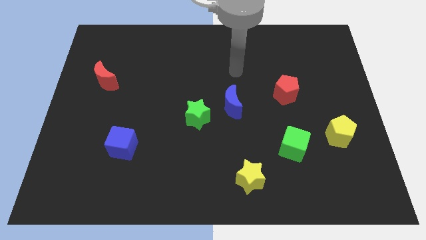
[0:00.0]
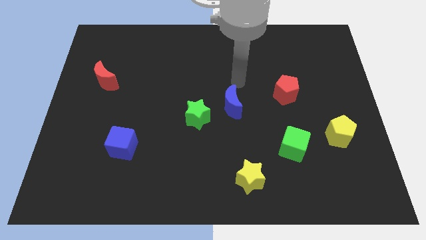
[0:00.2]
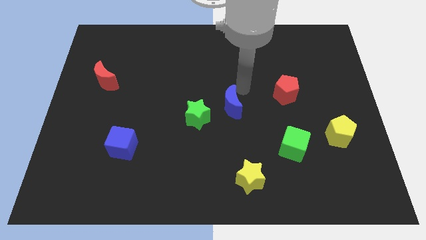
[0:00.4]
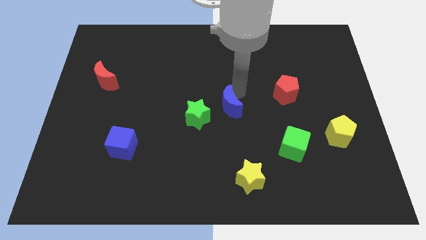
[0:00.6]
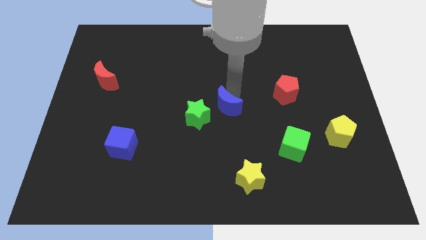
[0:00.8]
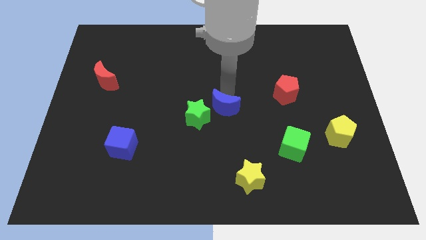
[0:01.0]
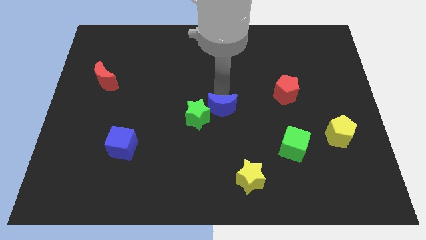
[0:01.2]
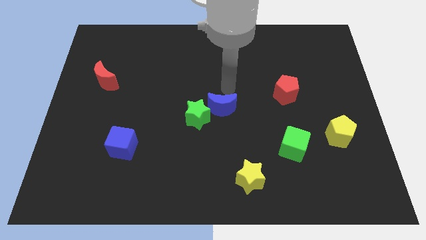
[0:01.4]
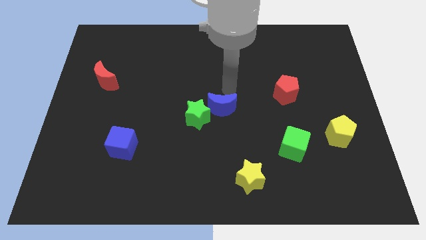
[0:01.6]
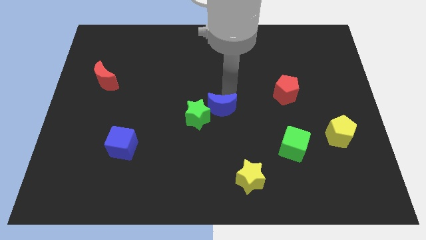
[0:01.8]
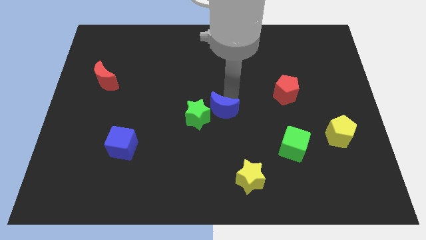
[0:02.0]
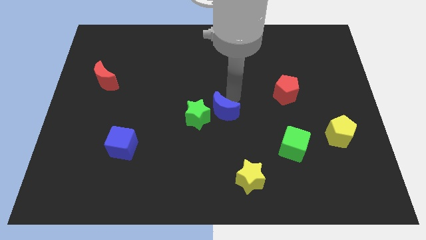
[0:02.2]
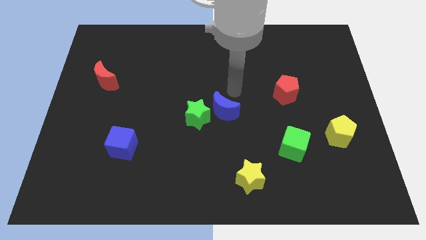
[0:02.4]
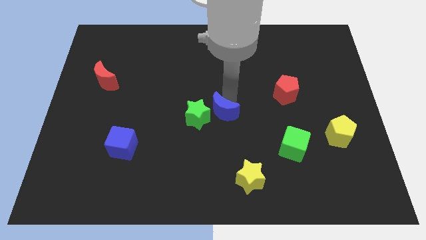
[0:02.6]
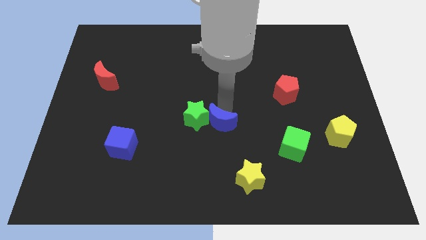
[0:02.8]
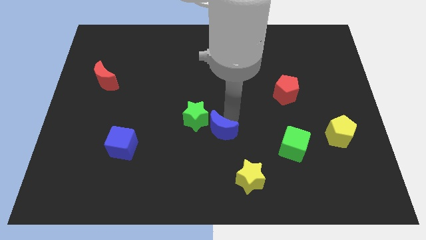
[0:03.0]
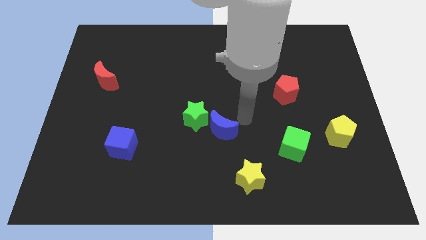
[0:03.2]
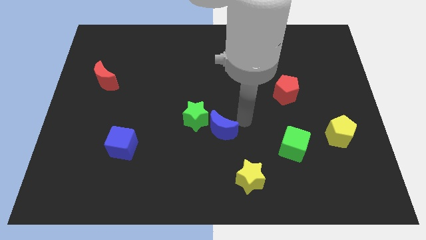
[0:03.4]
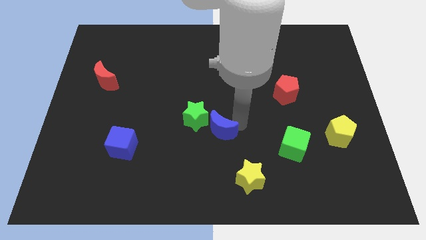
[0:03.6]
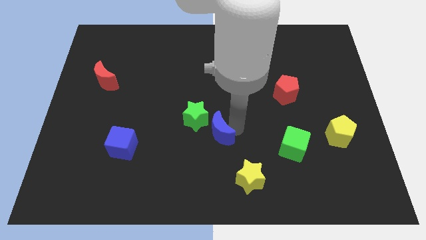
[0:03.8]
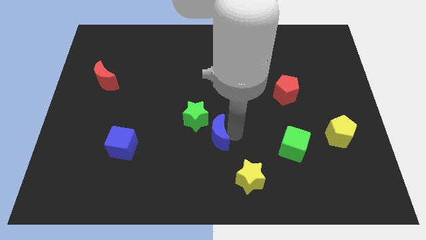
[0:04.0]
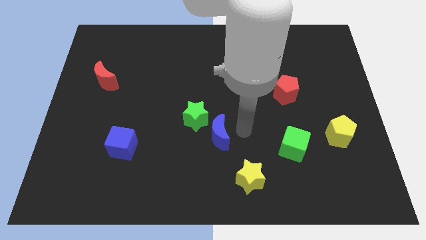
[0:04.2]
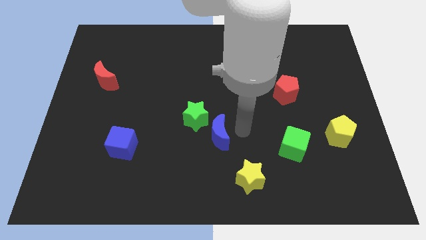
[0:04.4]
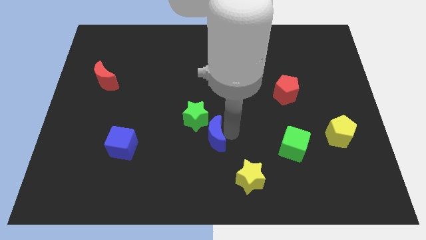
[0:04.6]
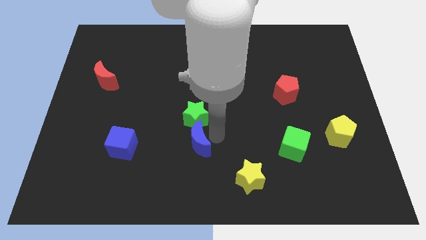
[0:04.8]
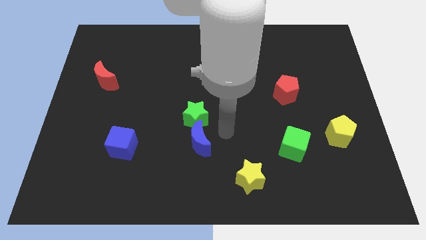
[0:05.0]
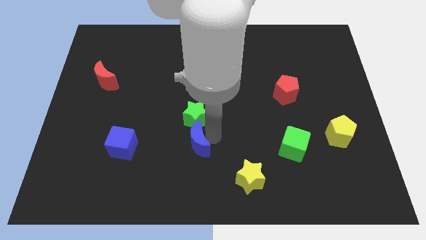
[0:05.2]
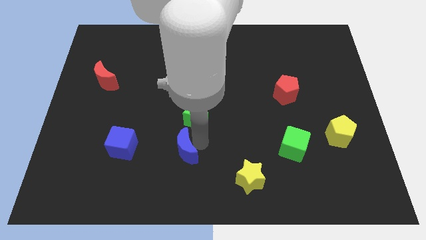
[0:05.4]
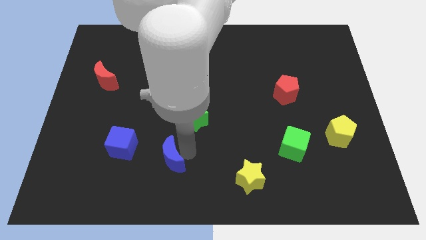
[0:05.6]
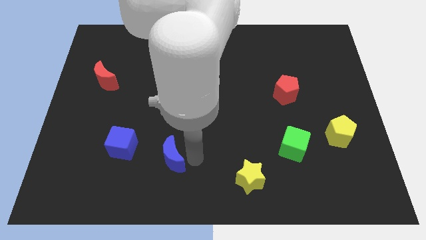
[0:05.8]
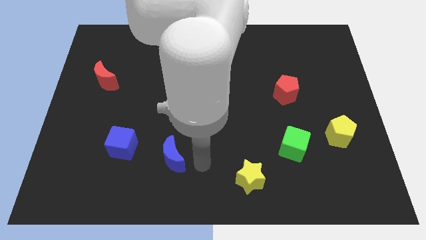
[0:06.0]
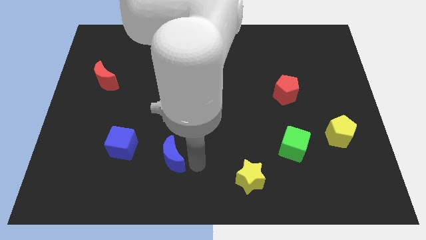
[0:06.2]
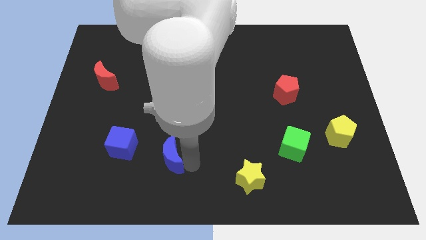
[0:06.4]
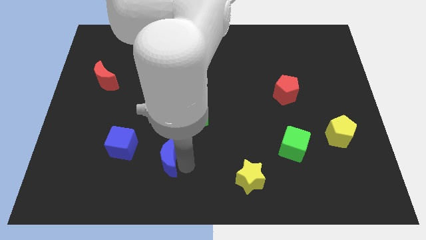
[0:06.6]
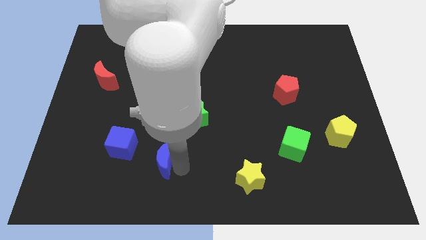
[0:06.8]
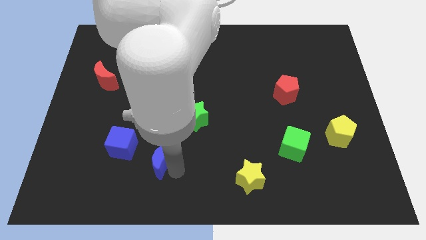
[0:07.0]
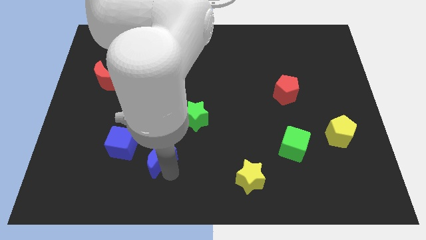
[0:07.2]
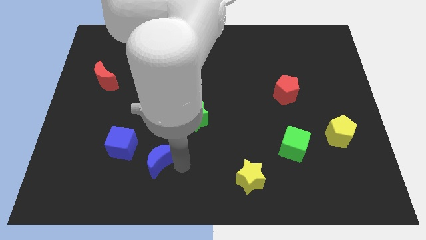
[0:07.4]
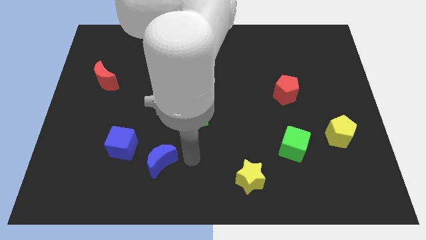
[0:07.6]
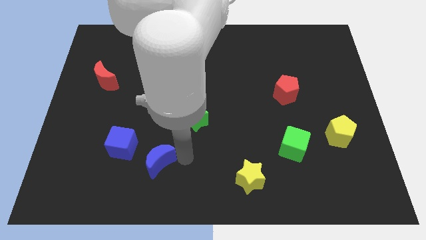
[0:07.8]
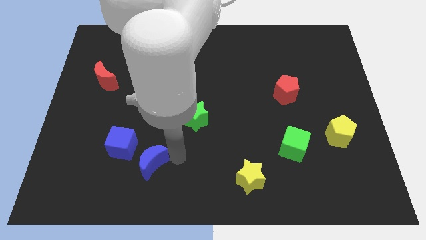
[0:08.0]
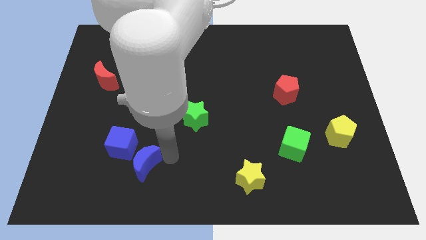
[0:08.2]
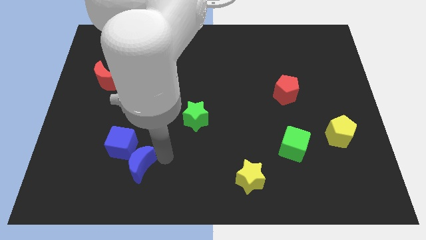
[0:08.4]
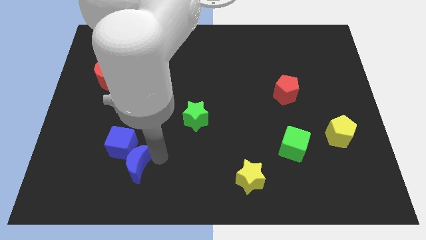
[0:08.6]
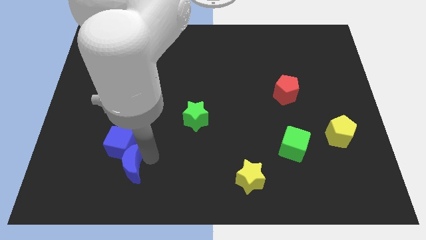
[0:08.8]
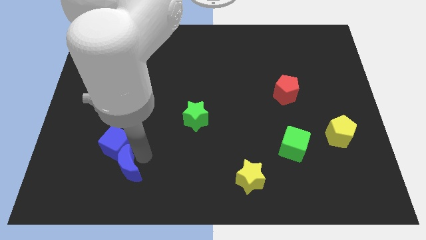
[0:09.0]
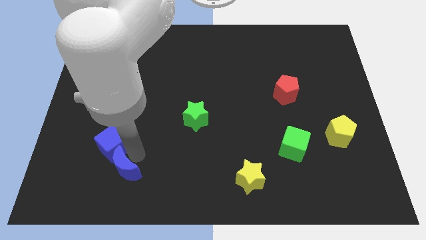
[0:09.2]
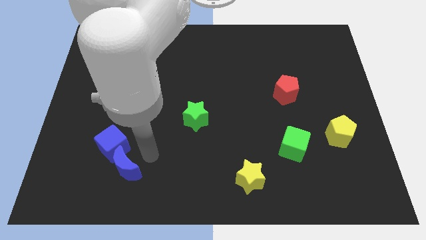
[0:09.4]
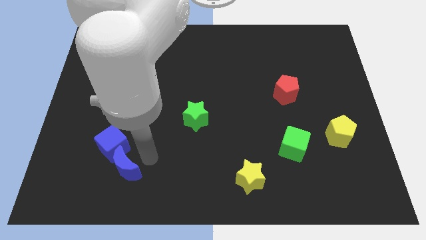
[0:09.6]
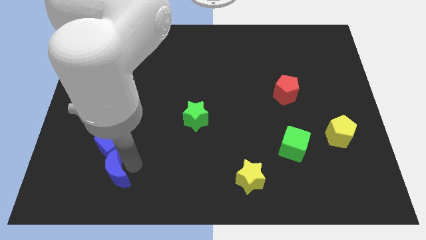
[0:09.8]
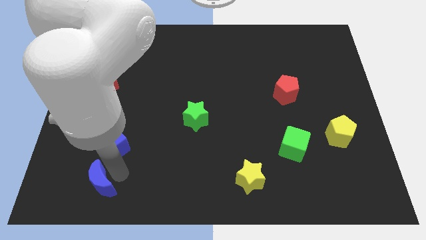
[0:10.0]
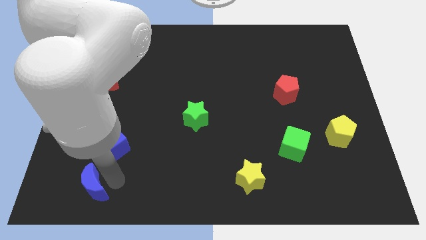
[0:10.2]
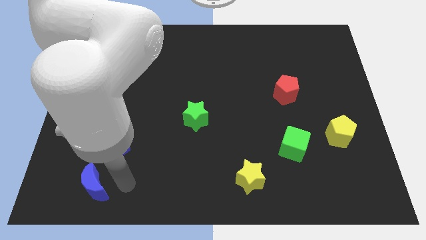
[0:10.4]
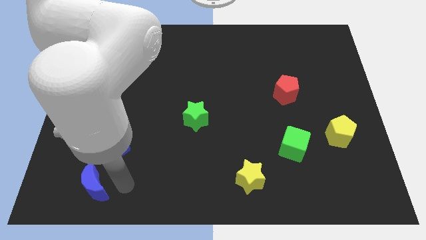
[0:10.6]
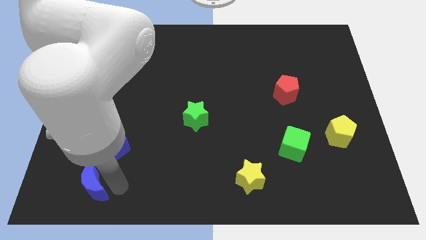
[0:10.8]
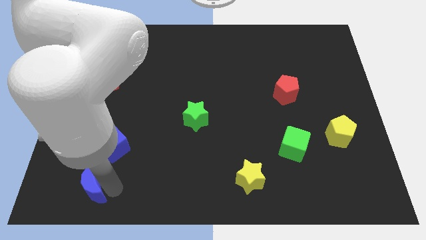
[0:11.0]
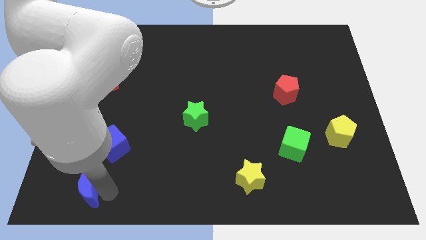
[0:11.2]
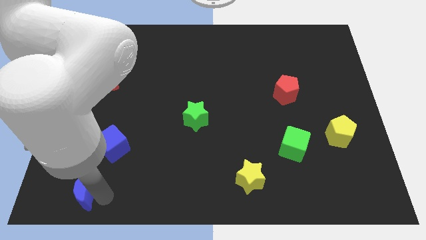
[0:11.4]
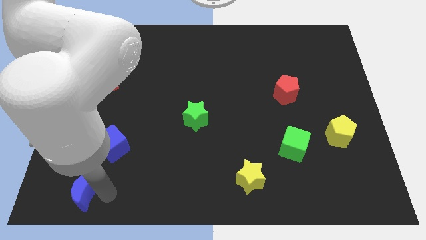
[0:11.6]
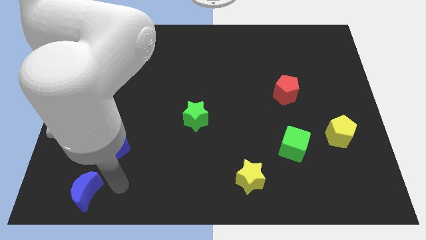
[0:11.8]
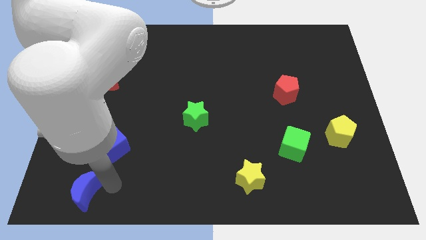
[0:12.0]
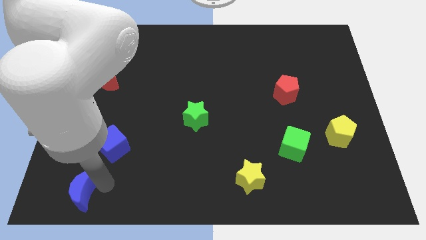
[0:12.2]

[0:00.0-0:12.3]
put the blue moon to the bottom left

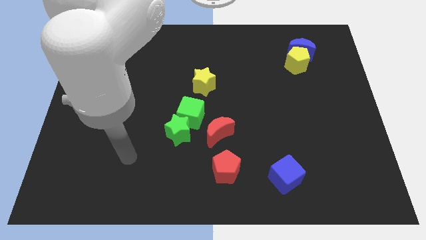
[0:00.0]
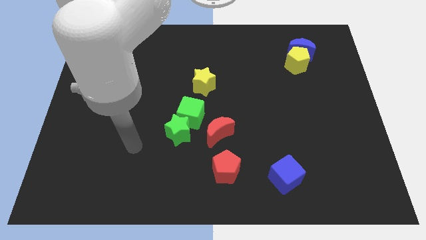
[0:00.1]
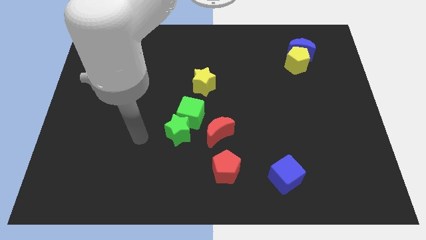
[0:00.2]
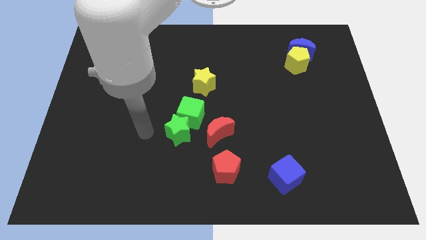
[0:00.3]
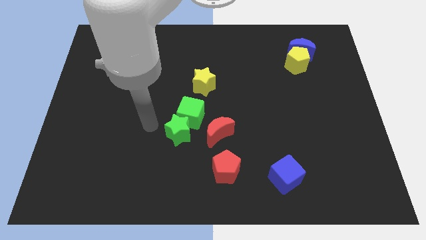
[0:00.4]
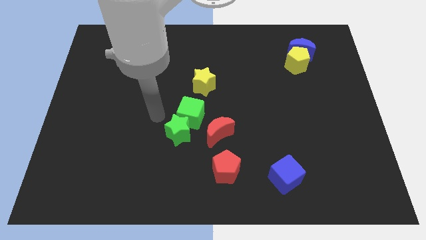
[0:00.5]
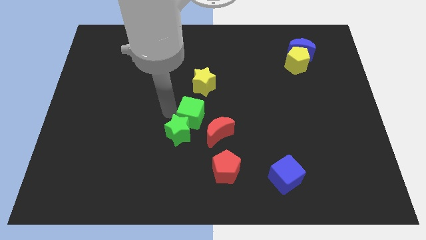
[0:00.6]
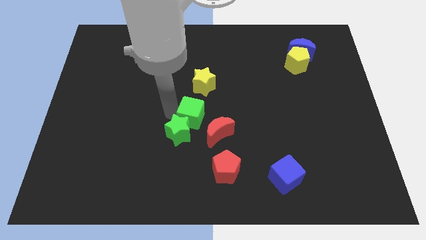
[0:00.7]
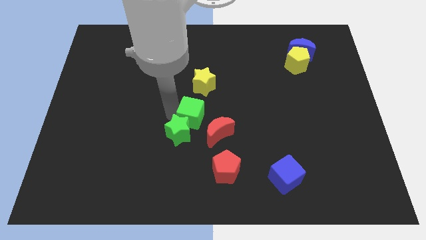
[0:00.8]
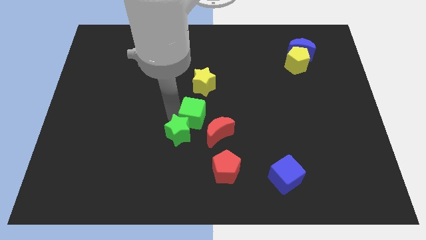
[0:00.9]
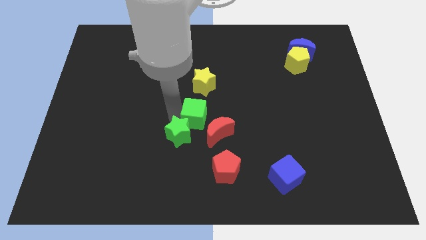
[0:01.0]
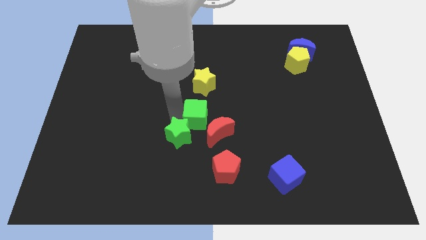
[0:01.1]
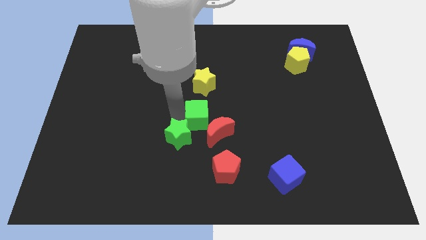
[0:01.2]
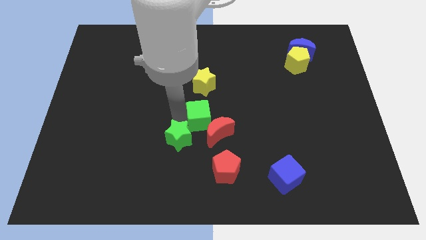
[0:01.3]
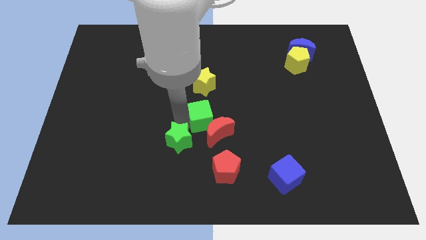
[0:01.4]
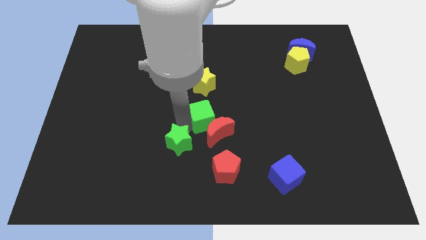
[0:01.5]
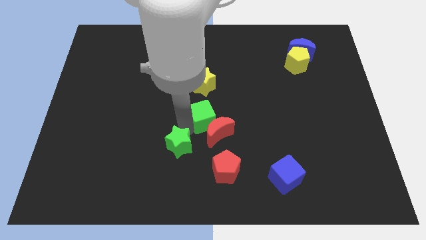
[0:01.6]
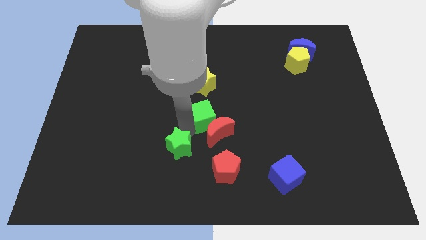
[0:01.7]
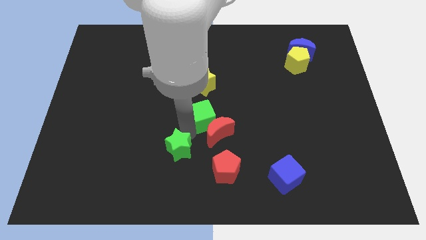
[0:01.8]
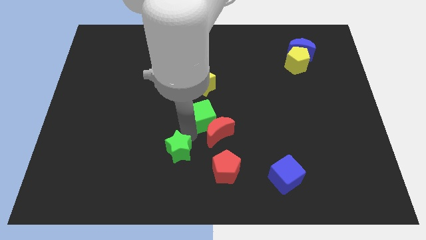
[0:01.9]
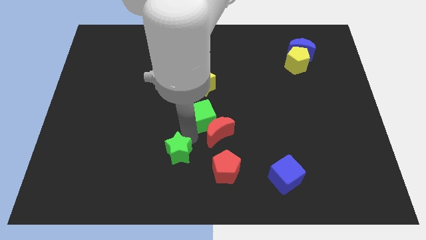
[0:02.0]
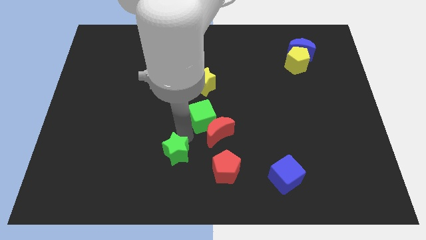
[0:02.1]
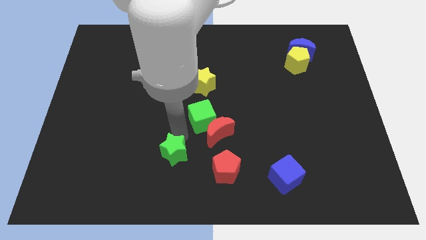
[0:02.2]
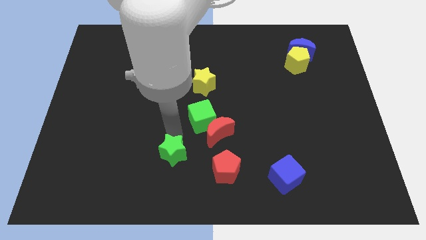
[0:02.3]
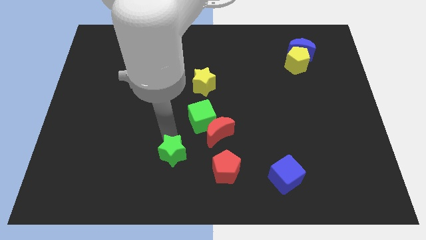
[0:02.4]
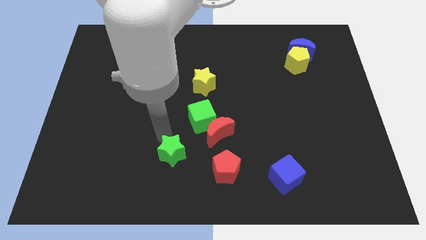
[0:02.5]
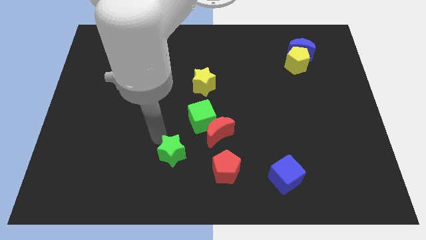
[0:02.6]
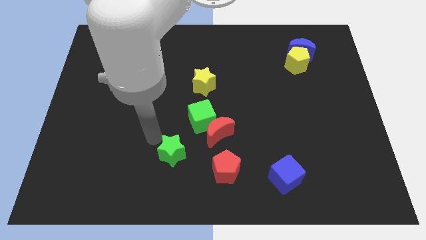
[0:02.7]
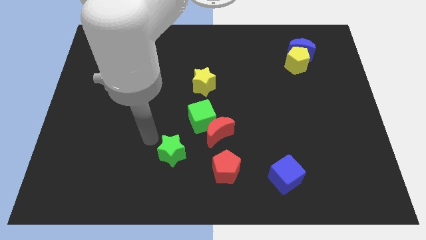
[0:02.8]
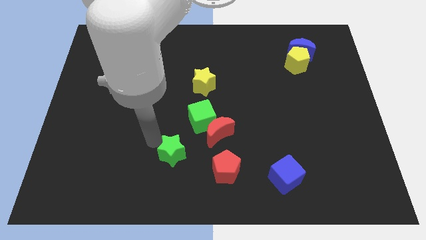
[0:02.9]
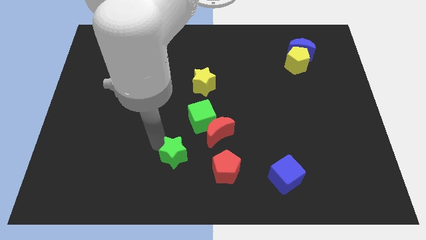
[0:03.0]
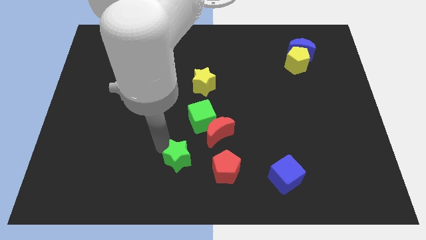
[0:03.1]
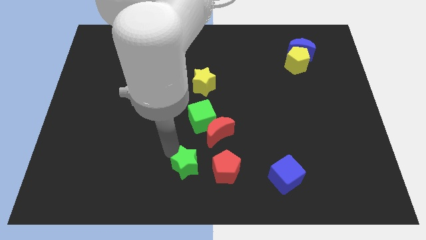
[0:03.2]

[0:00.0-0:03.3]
slide the green star to the bottom side
